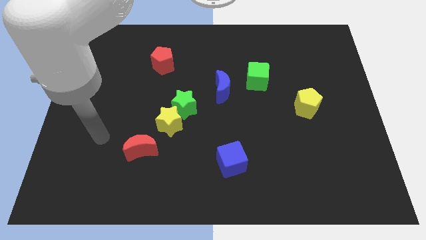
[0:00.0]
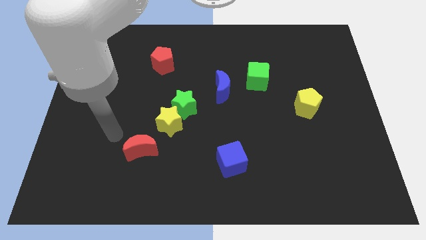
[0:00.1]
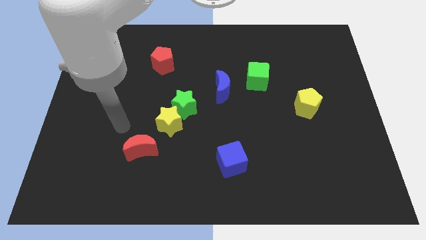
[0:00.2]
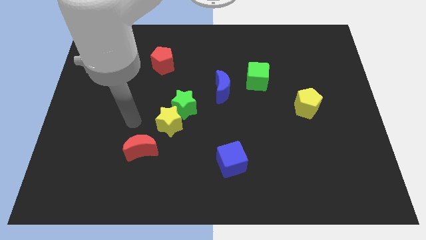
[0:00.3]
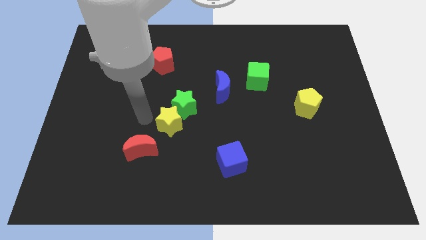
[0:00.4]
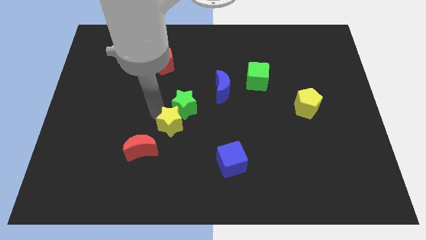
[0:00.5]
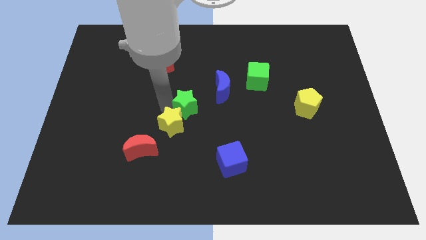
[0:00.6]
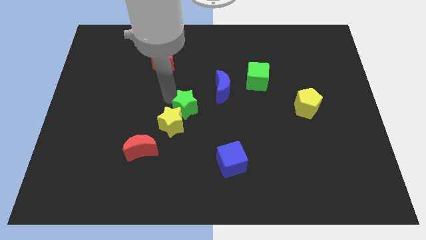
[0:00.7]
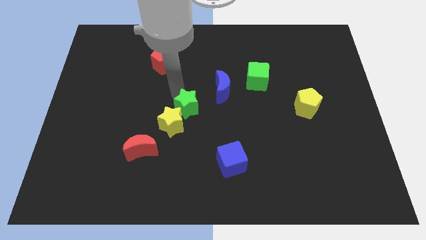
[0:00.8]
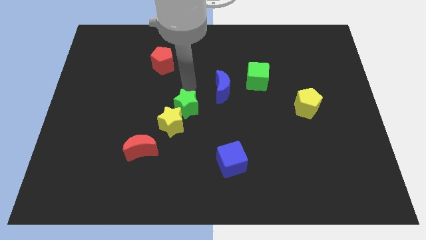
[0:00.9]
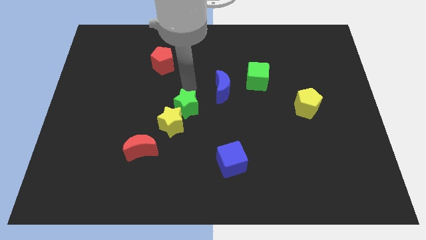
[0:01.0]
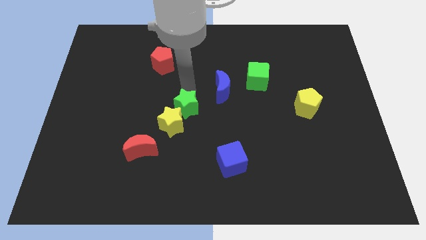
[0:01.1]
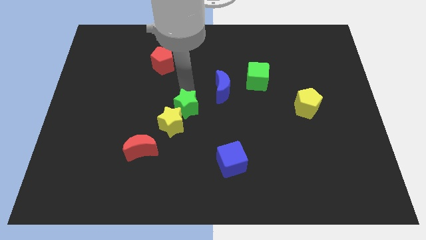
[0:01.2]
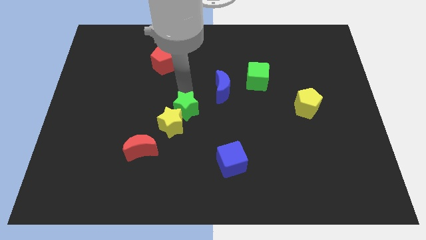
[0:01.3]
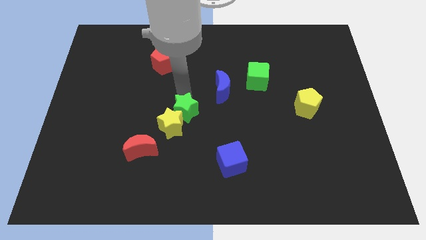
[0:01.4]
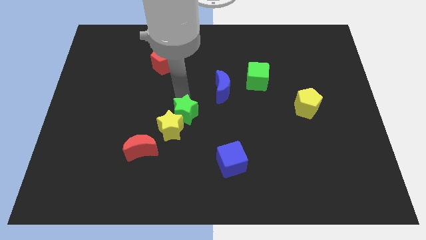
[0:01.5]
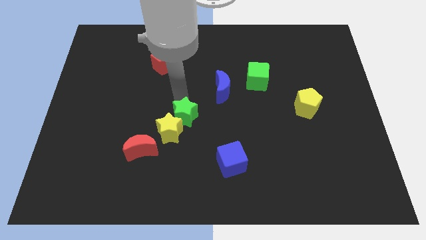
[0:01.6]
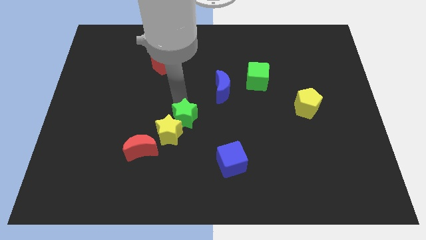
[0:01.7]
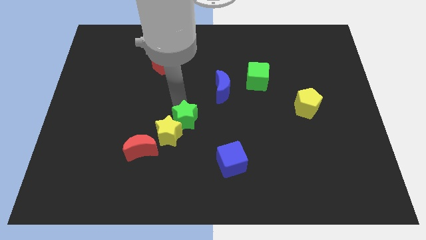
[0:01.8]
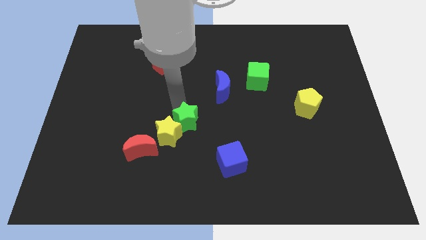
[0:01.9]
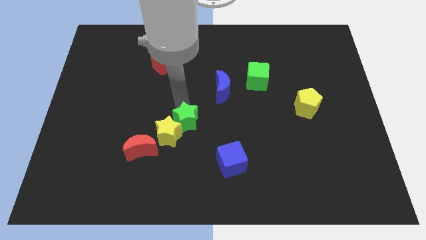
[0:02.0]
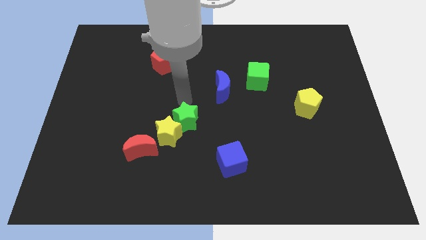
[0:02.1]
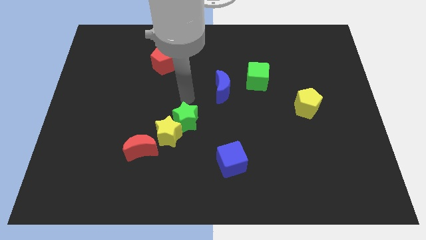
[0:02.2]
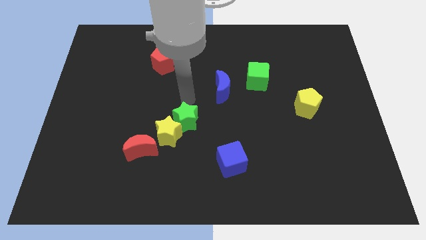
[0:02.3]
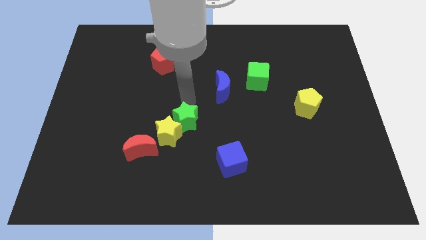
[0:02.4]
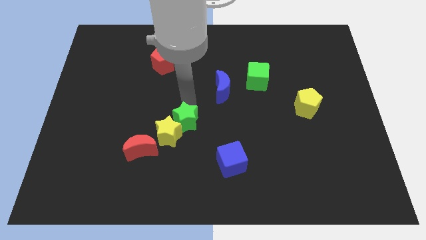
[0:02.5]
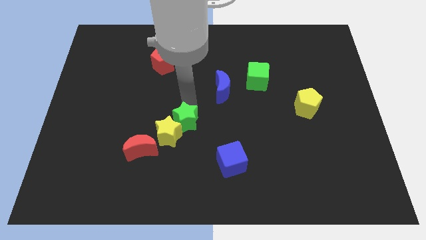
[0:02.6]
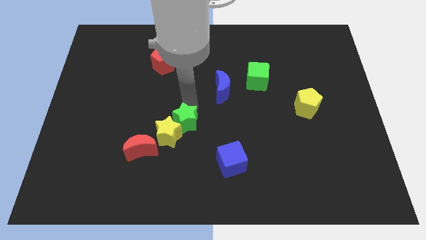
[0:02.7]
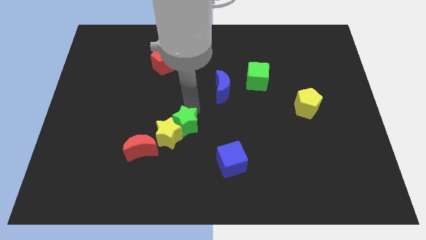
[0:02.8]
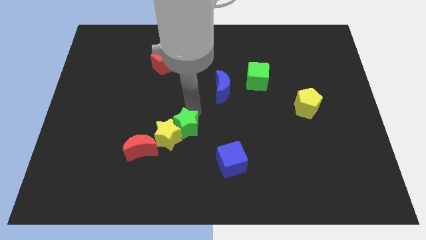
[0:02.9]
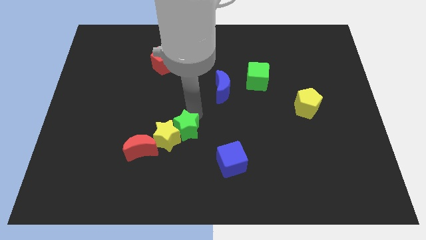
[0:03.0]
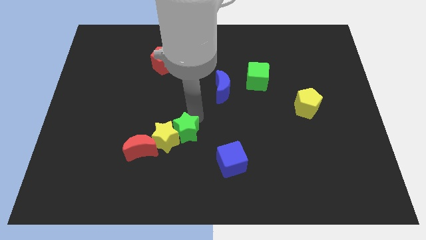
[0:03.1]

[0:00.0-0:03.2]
slide the green star downwards slightly

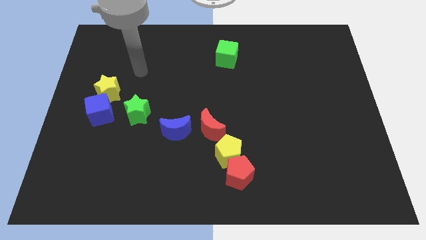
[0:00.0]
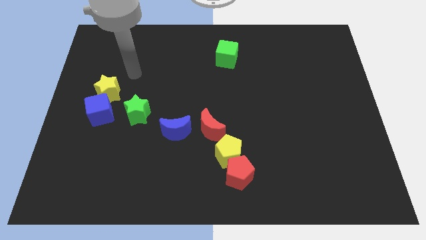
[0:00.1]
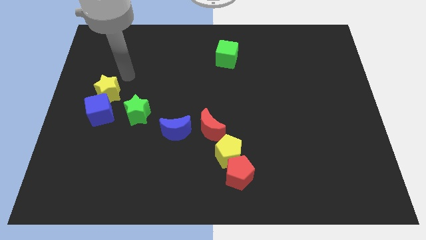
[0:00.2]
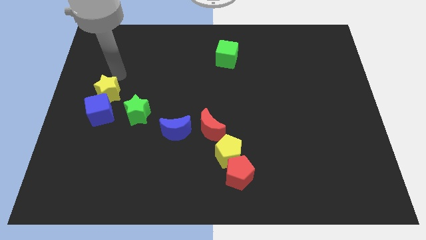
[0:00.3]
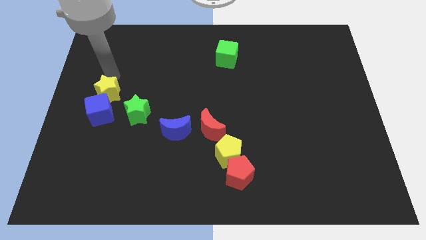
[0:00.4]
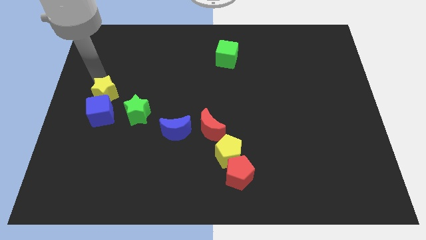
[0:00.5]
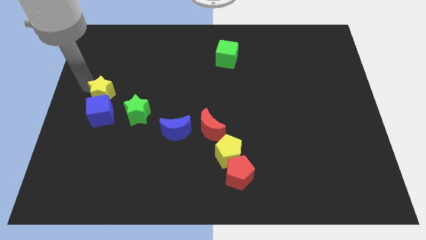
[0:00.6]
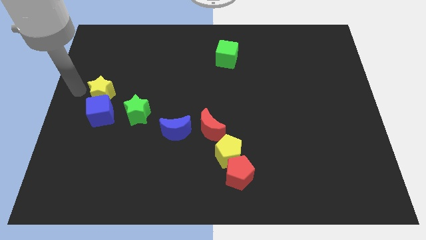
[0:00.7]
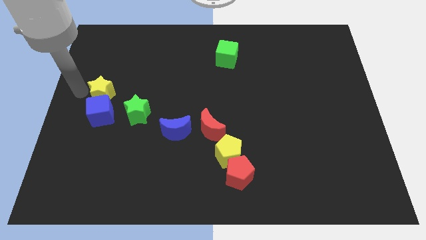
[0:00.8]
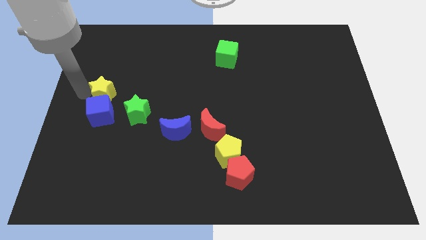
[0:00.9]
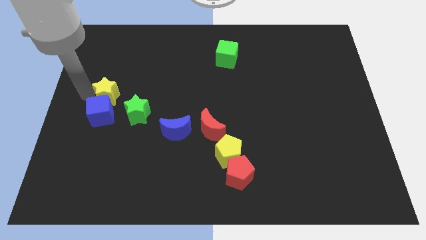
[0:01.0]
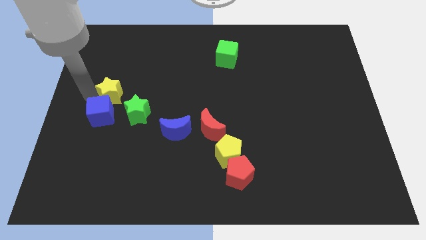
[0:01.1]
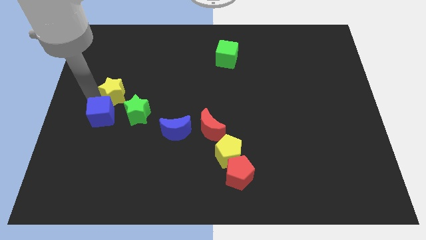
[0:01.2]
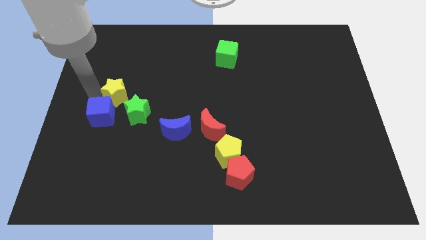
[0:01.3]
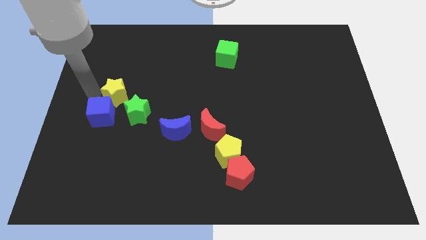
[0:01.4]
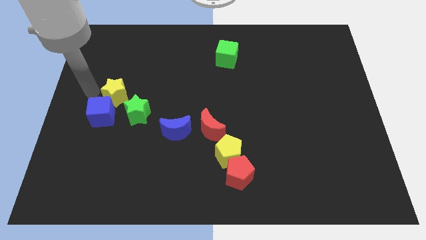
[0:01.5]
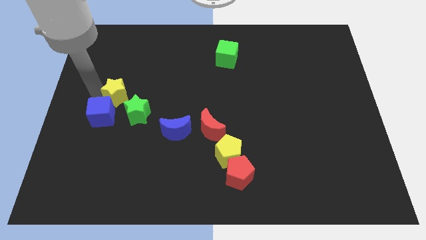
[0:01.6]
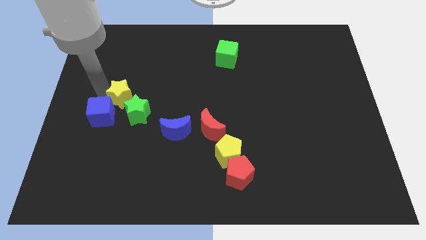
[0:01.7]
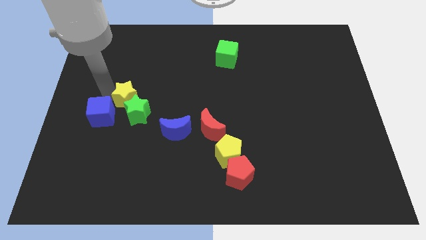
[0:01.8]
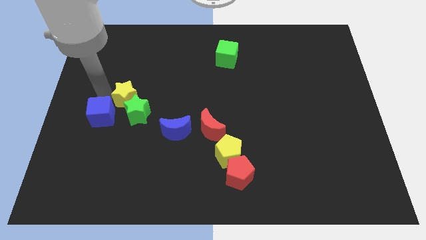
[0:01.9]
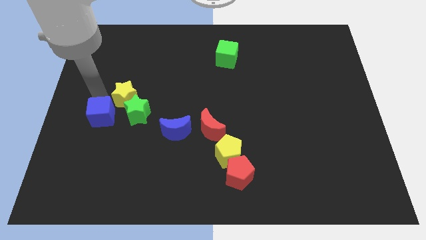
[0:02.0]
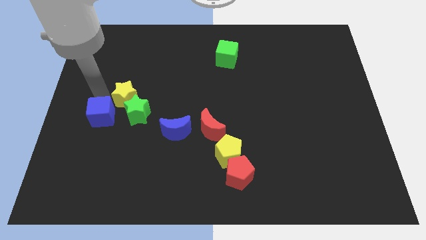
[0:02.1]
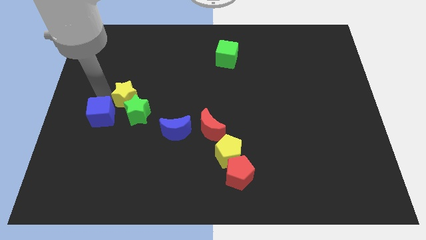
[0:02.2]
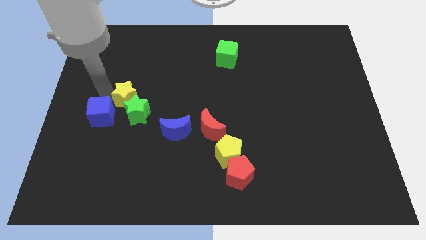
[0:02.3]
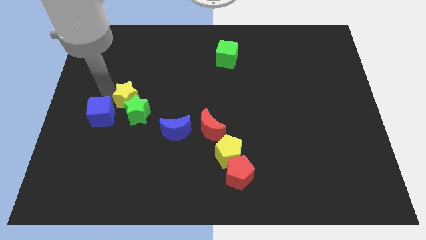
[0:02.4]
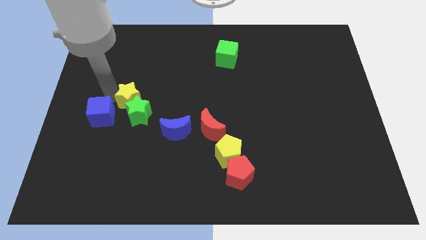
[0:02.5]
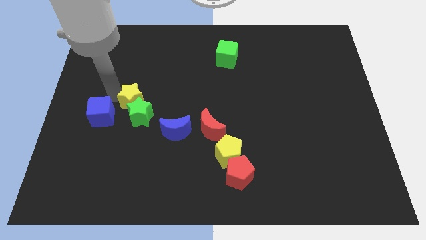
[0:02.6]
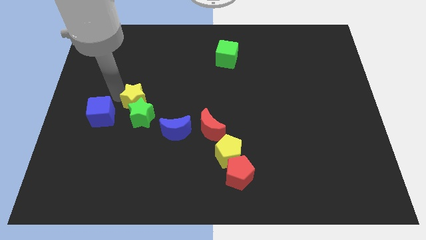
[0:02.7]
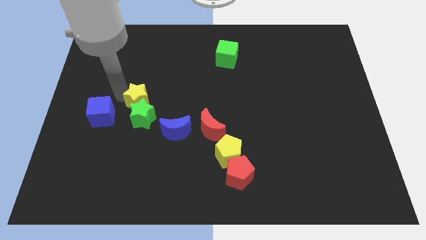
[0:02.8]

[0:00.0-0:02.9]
slightly move the yellow star downwards and to the right

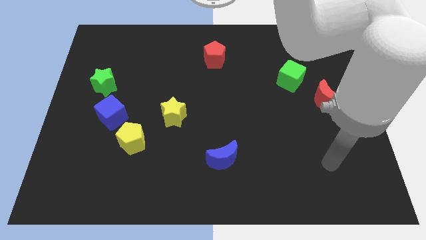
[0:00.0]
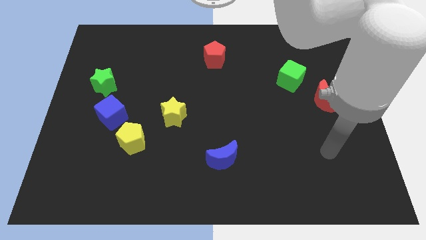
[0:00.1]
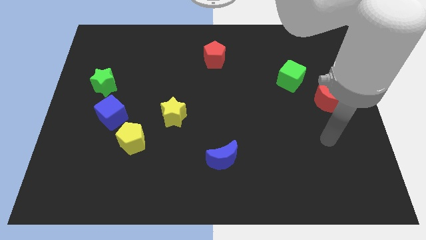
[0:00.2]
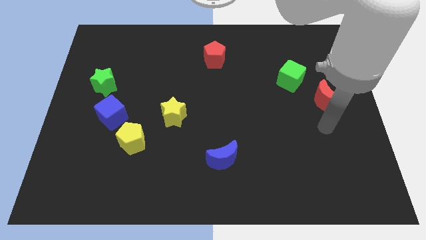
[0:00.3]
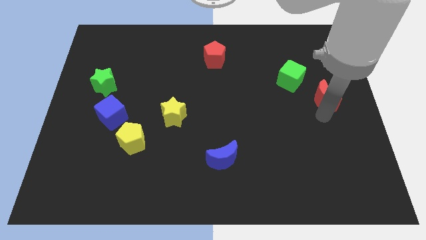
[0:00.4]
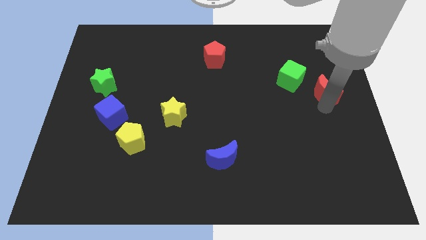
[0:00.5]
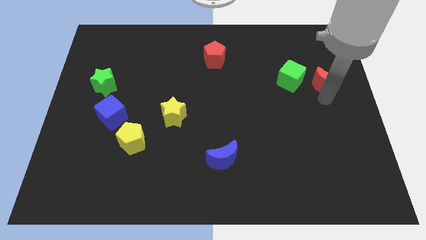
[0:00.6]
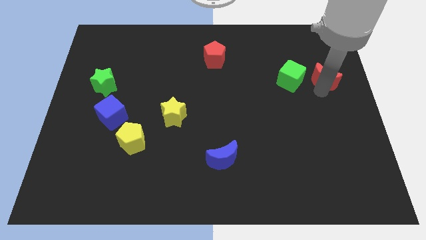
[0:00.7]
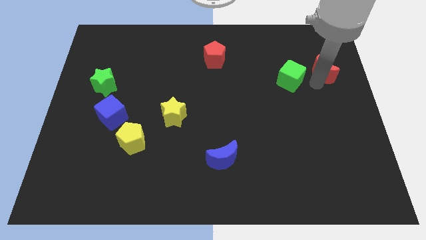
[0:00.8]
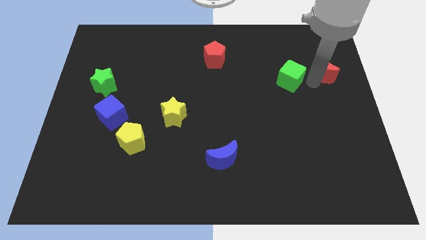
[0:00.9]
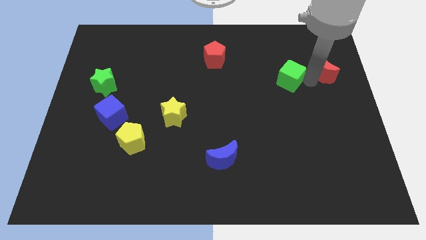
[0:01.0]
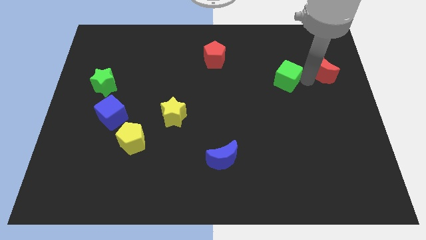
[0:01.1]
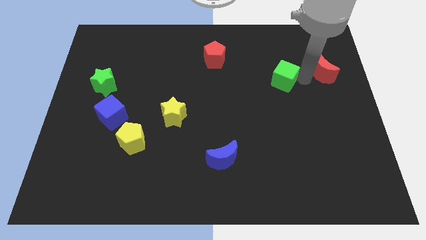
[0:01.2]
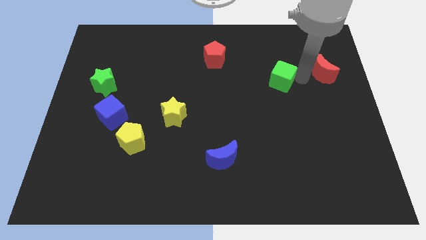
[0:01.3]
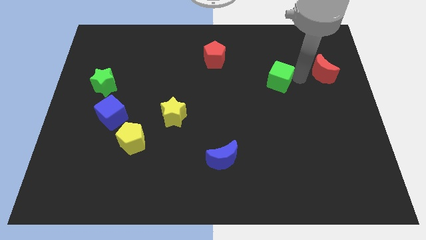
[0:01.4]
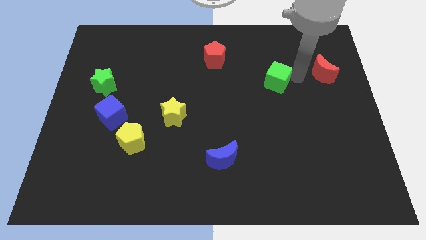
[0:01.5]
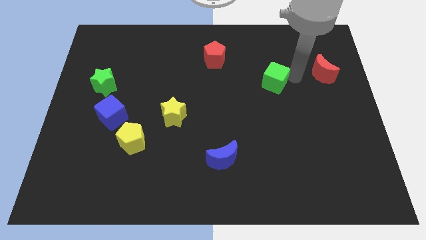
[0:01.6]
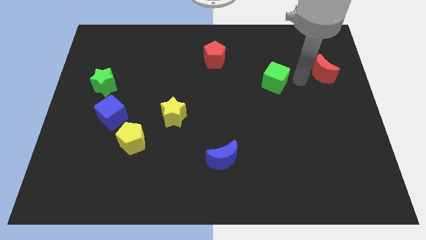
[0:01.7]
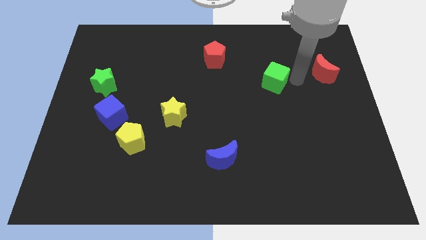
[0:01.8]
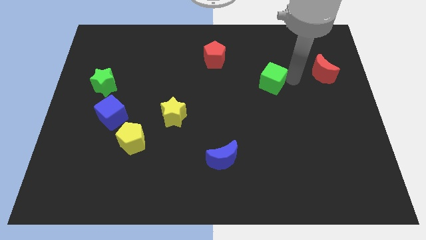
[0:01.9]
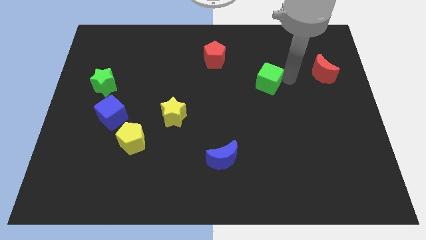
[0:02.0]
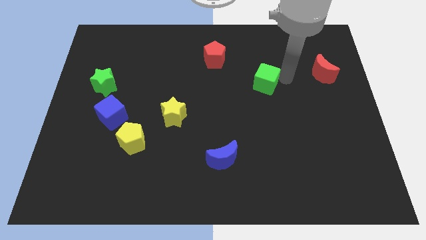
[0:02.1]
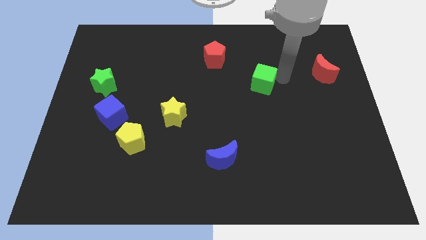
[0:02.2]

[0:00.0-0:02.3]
slightly slide the green cube left
